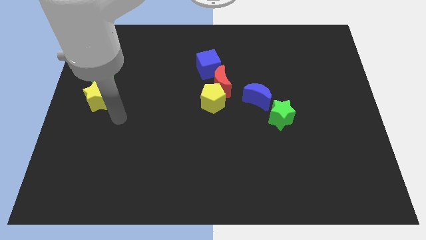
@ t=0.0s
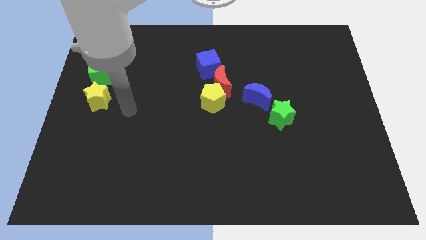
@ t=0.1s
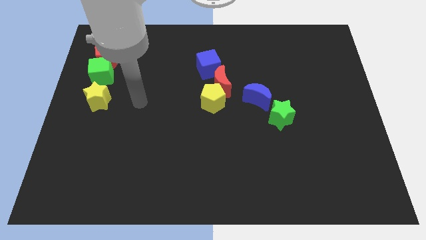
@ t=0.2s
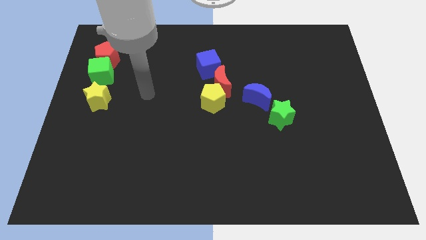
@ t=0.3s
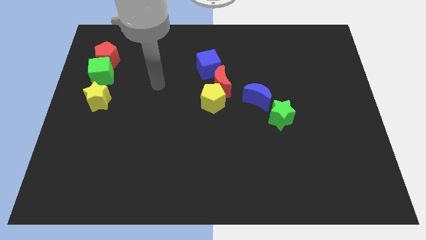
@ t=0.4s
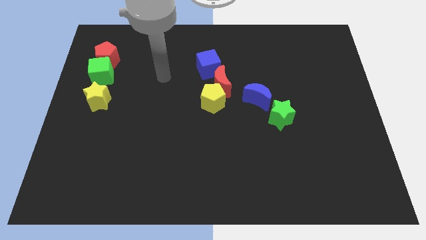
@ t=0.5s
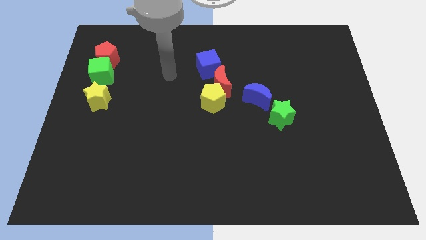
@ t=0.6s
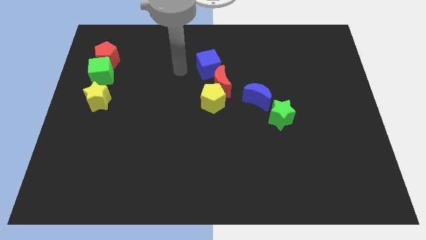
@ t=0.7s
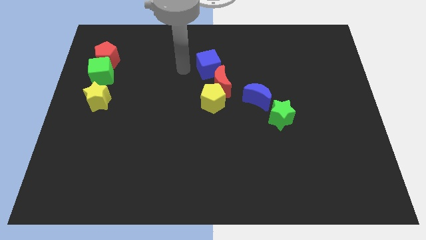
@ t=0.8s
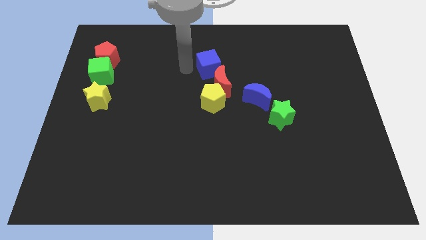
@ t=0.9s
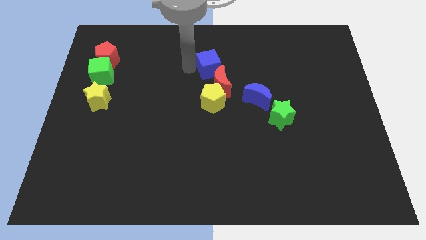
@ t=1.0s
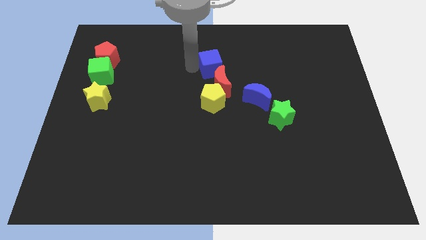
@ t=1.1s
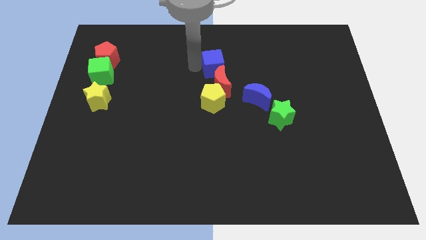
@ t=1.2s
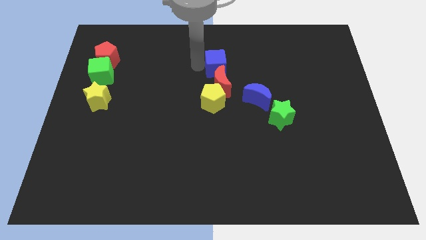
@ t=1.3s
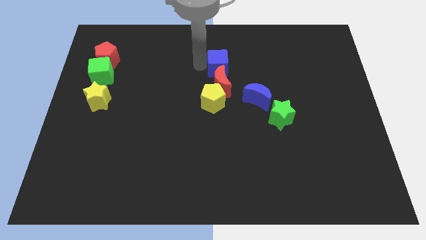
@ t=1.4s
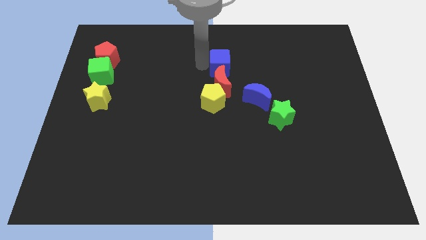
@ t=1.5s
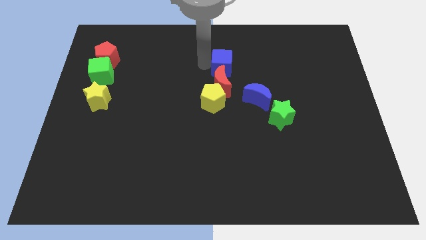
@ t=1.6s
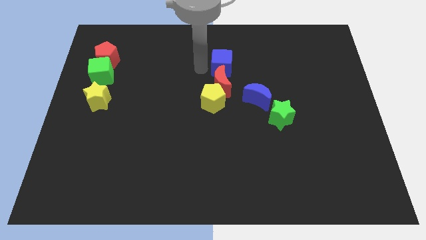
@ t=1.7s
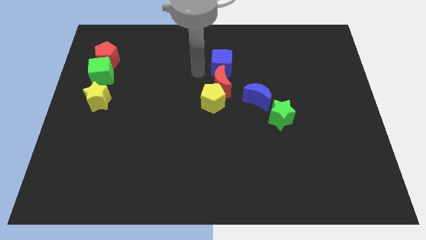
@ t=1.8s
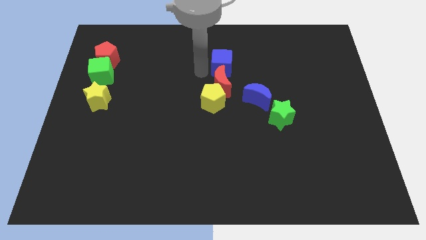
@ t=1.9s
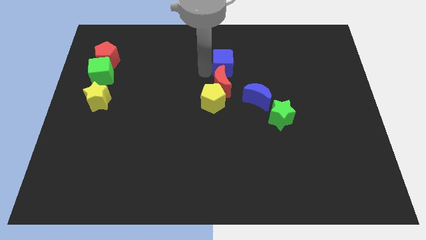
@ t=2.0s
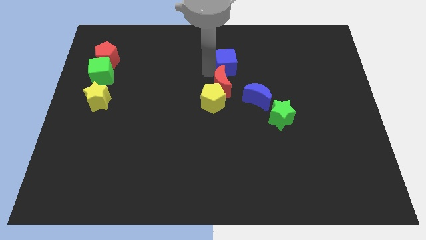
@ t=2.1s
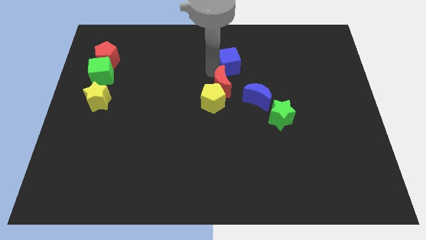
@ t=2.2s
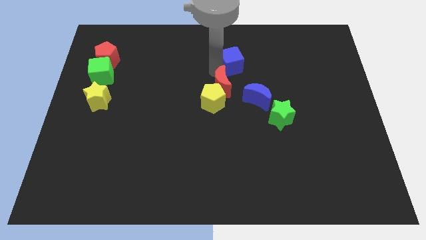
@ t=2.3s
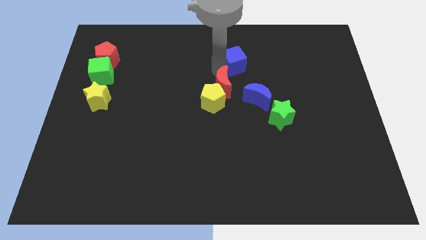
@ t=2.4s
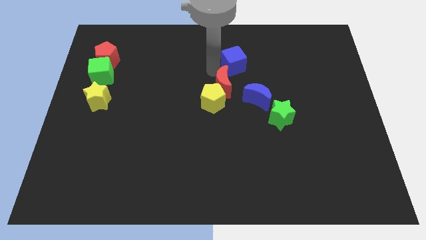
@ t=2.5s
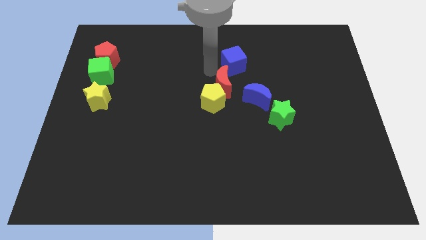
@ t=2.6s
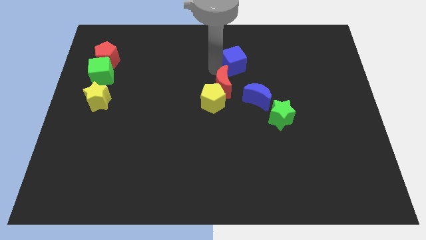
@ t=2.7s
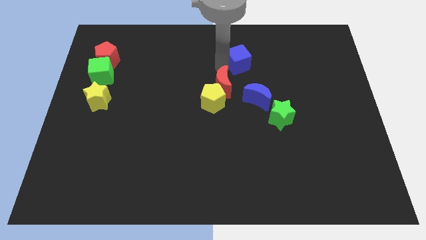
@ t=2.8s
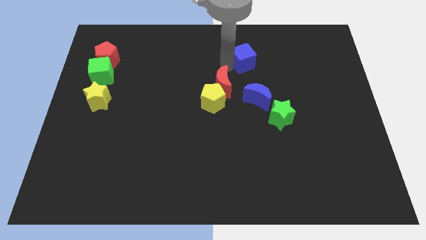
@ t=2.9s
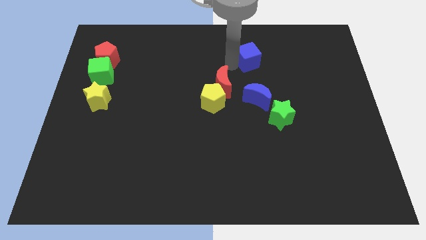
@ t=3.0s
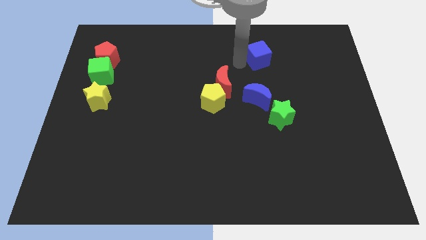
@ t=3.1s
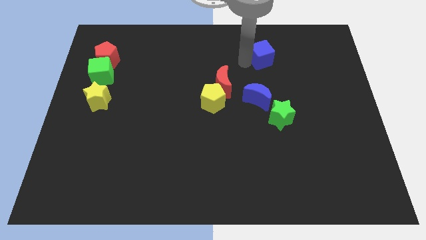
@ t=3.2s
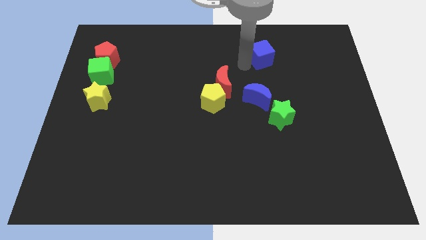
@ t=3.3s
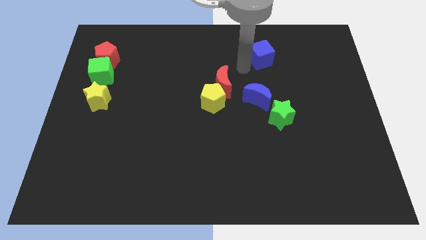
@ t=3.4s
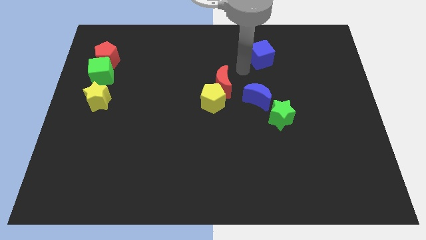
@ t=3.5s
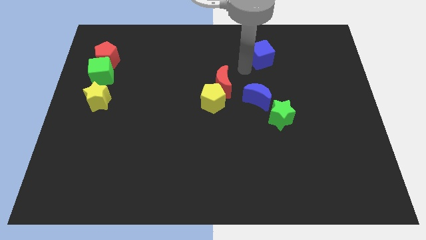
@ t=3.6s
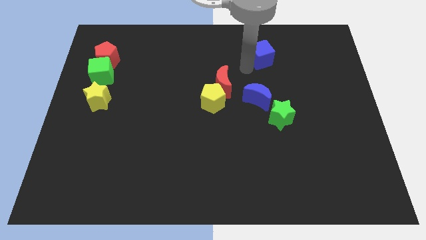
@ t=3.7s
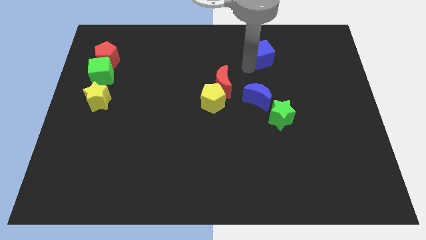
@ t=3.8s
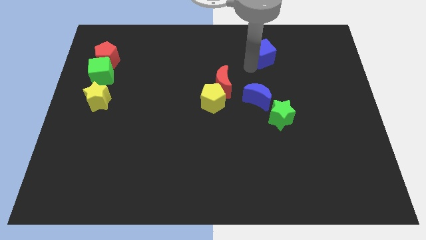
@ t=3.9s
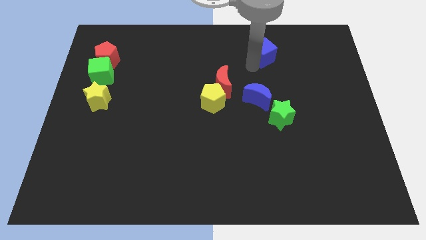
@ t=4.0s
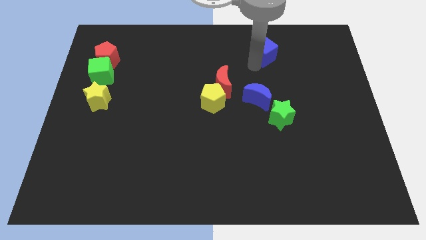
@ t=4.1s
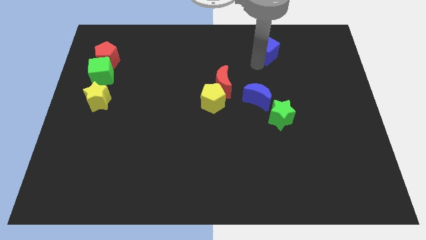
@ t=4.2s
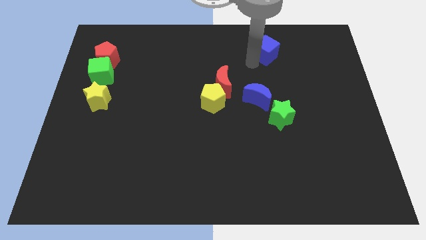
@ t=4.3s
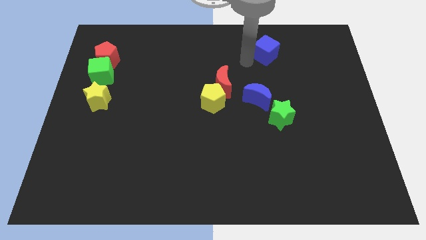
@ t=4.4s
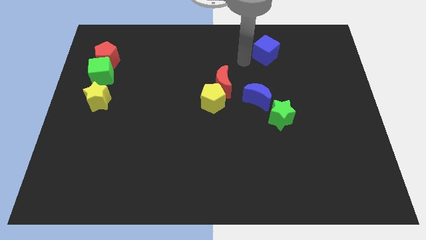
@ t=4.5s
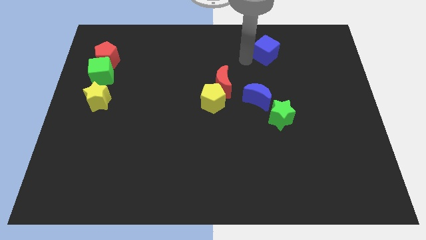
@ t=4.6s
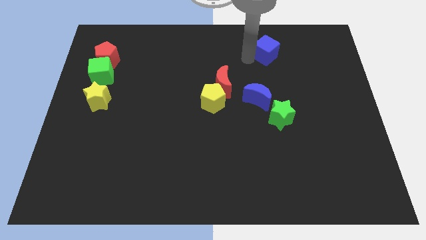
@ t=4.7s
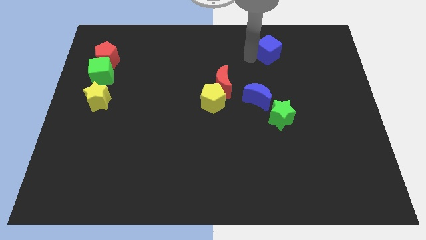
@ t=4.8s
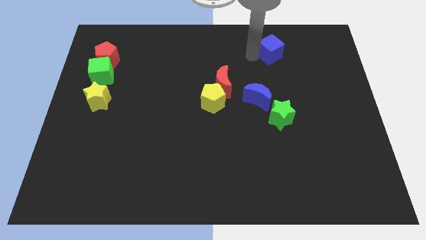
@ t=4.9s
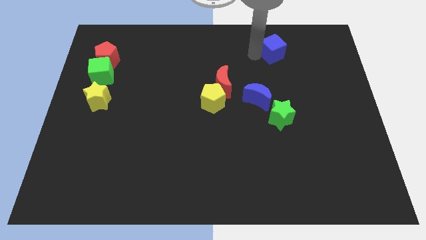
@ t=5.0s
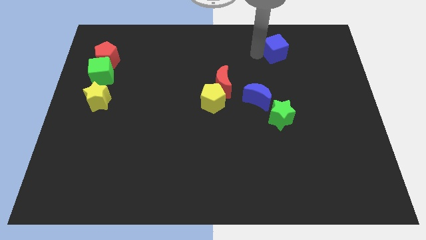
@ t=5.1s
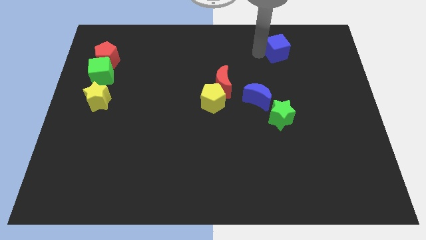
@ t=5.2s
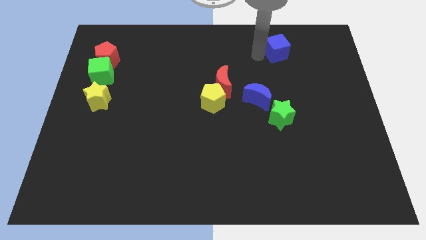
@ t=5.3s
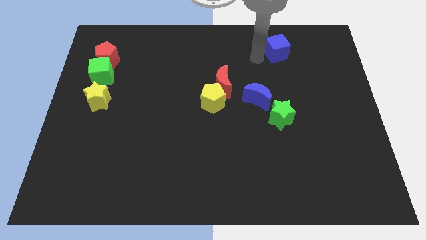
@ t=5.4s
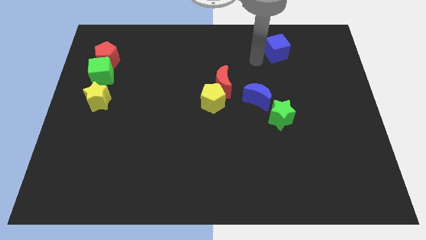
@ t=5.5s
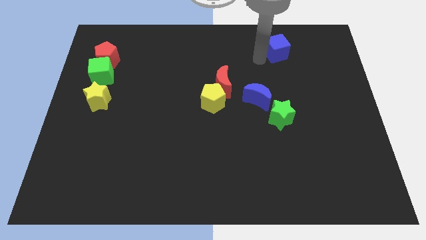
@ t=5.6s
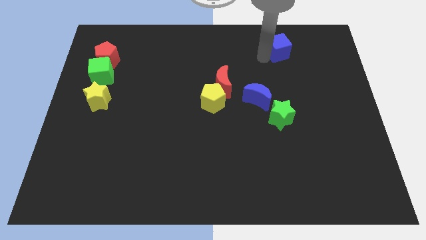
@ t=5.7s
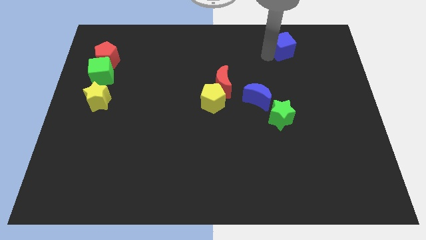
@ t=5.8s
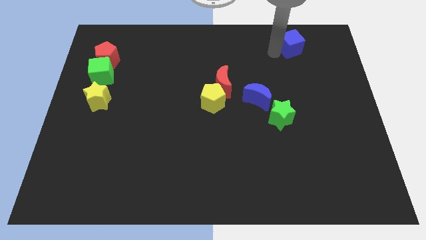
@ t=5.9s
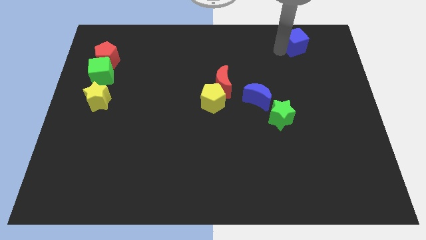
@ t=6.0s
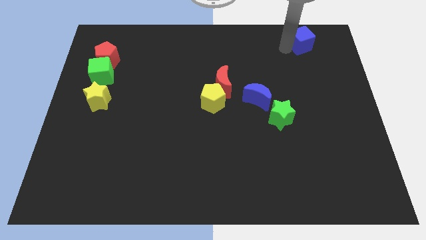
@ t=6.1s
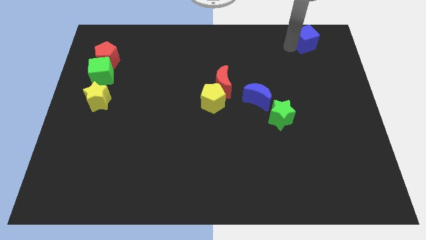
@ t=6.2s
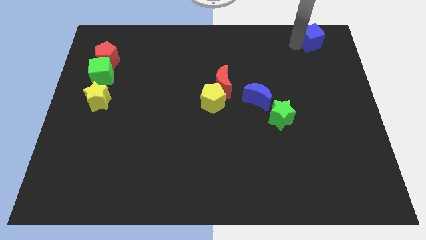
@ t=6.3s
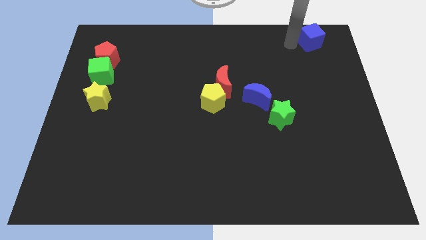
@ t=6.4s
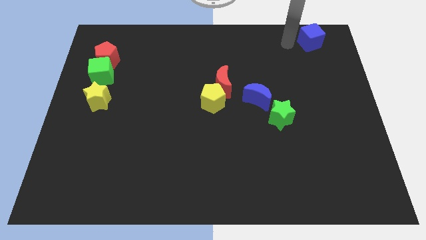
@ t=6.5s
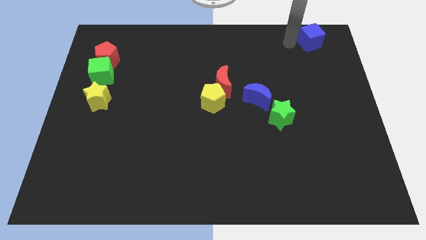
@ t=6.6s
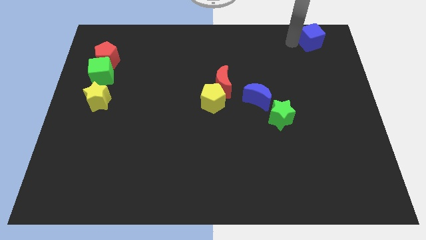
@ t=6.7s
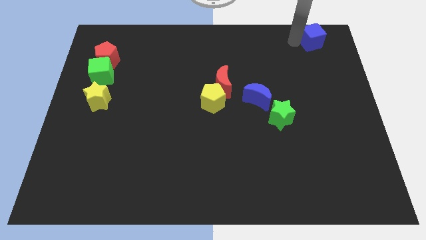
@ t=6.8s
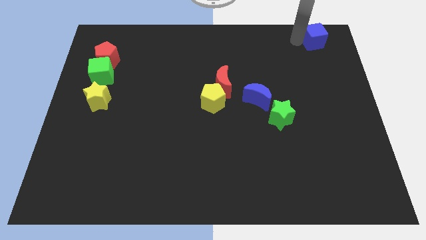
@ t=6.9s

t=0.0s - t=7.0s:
push the blue cube to the top right
